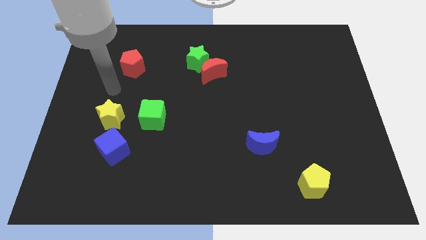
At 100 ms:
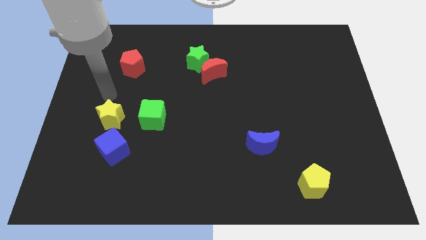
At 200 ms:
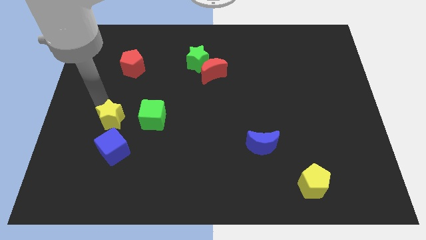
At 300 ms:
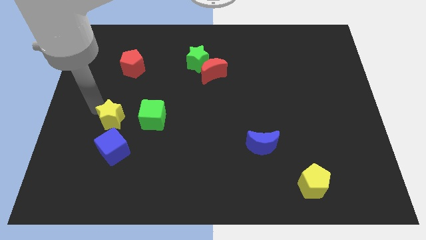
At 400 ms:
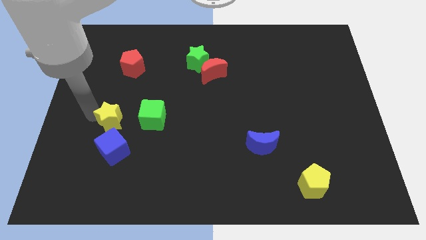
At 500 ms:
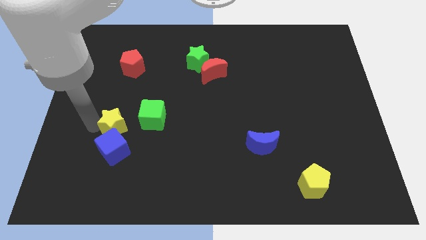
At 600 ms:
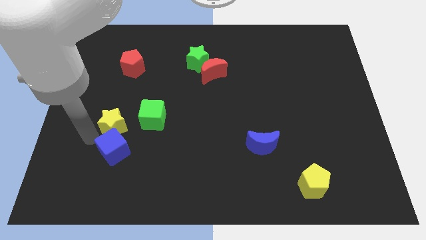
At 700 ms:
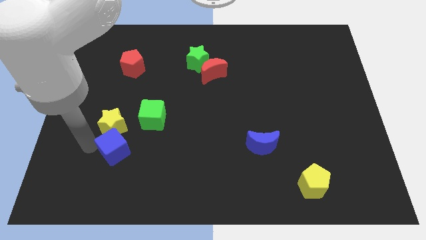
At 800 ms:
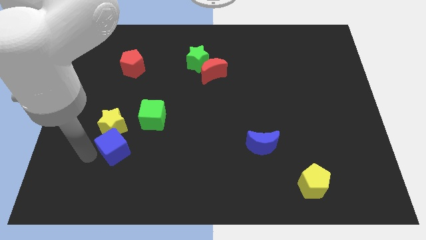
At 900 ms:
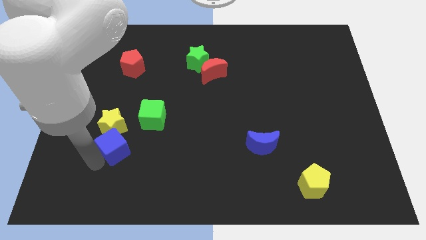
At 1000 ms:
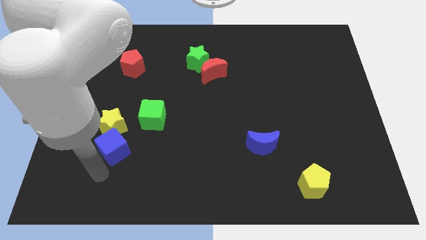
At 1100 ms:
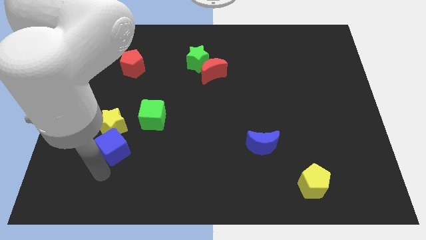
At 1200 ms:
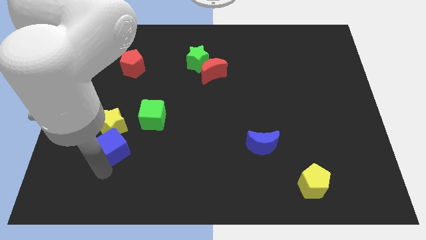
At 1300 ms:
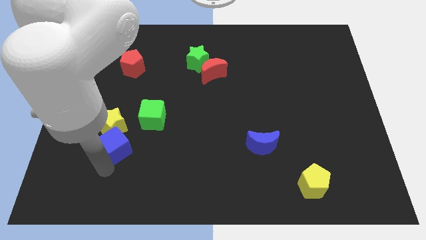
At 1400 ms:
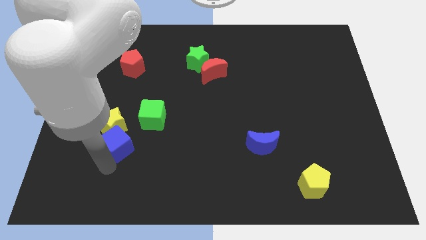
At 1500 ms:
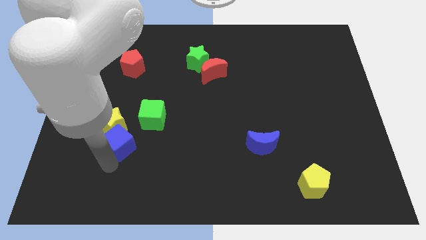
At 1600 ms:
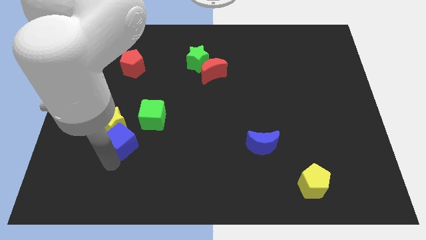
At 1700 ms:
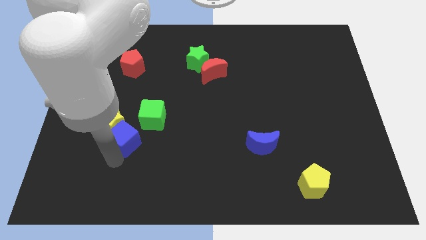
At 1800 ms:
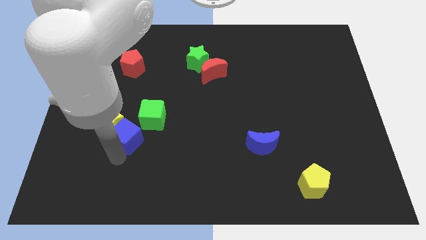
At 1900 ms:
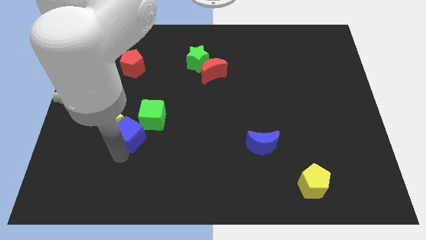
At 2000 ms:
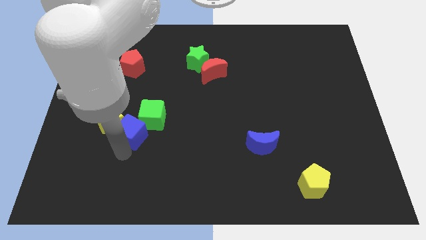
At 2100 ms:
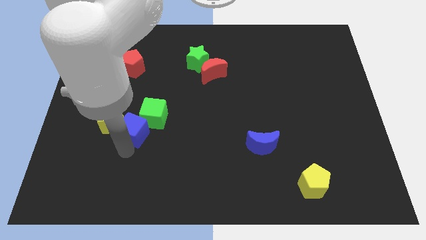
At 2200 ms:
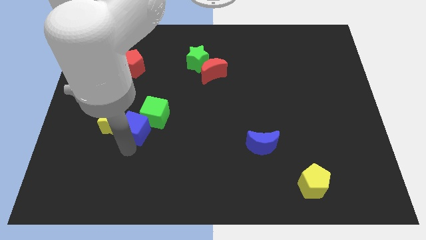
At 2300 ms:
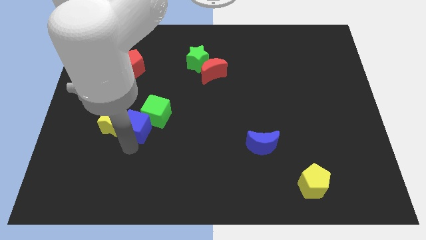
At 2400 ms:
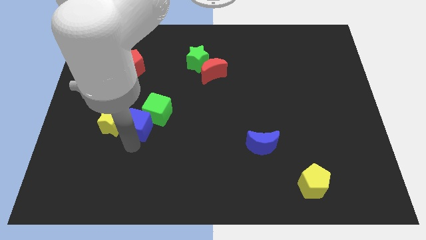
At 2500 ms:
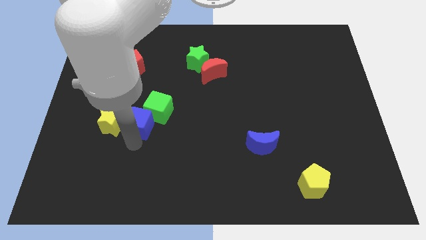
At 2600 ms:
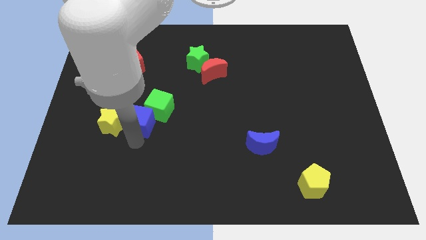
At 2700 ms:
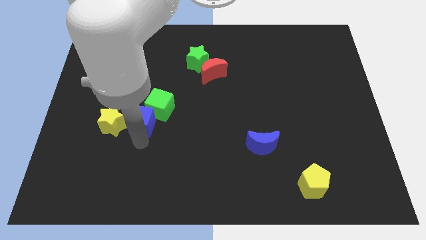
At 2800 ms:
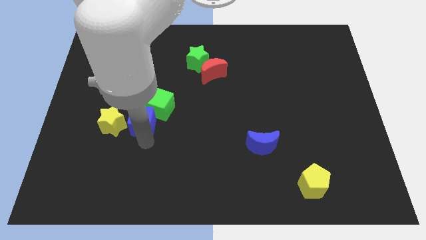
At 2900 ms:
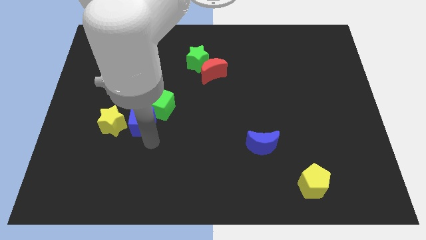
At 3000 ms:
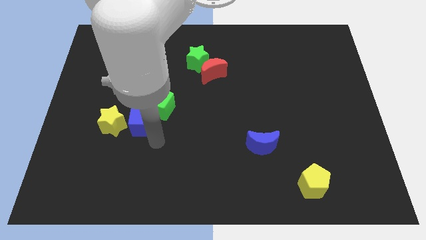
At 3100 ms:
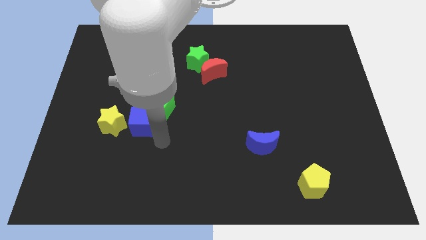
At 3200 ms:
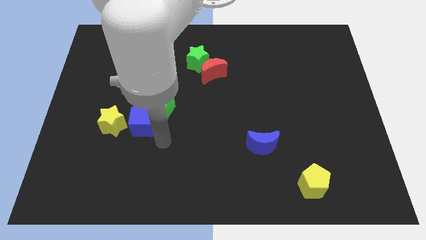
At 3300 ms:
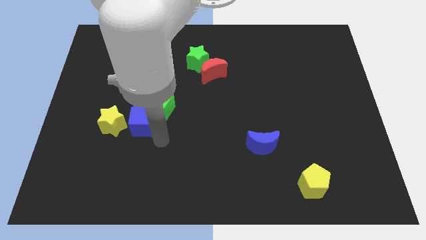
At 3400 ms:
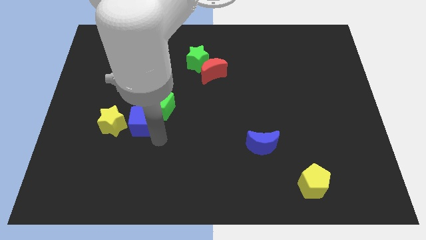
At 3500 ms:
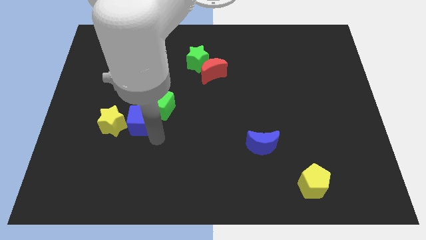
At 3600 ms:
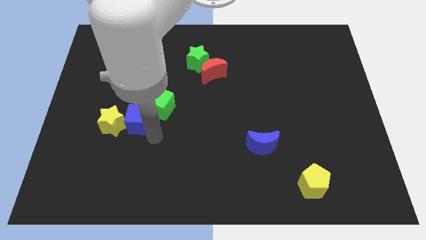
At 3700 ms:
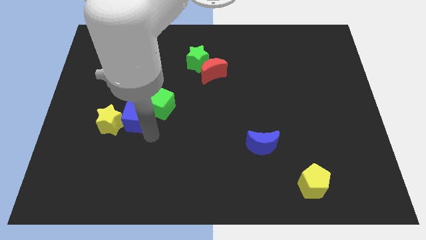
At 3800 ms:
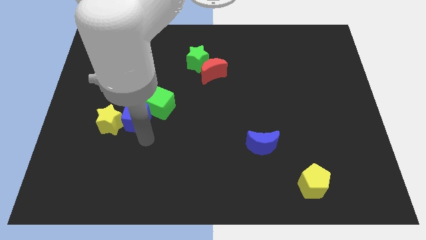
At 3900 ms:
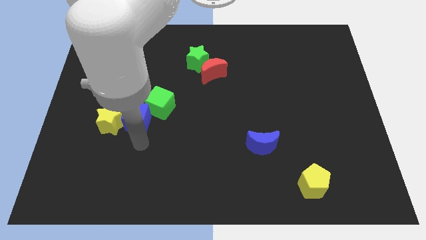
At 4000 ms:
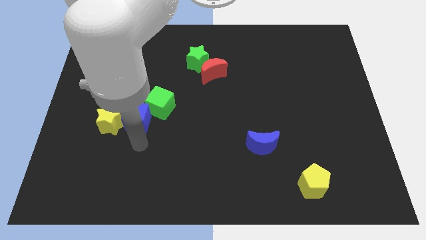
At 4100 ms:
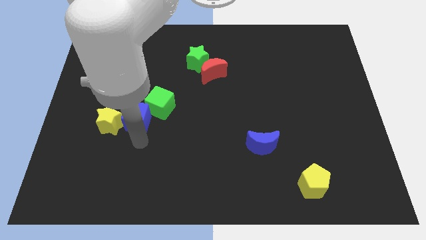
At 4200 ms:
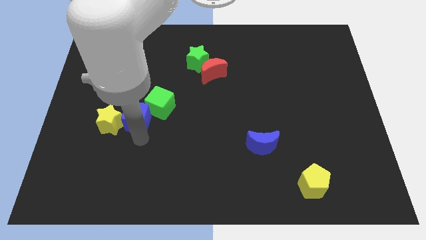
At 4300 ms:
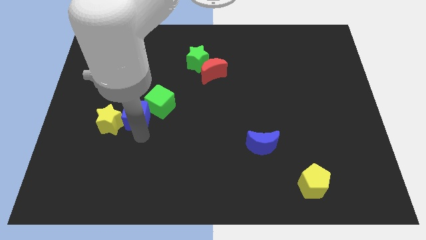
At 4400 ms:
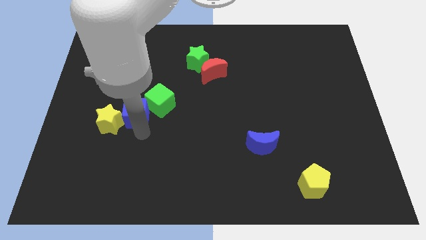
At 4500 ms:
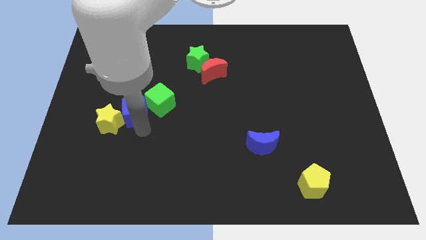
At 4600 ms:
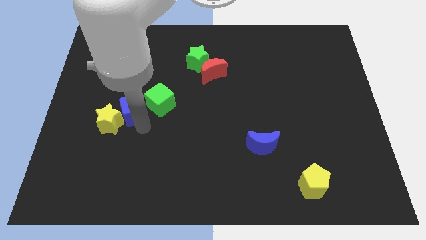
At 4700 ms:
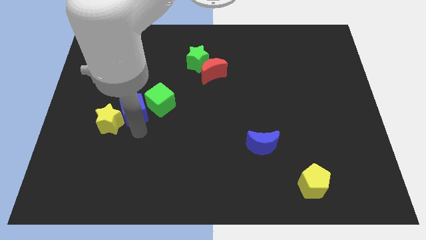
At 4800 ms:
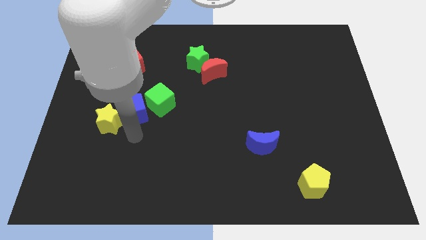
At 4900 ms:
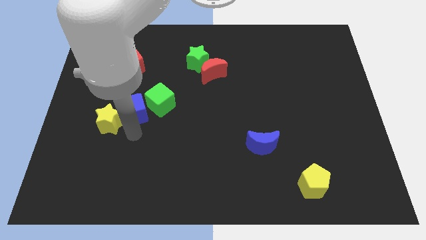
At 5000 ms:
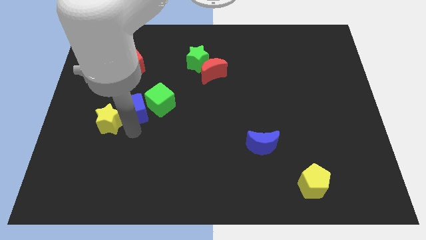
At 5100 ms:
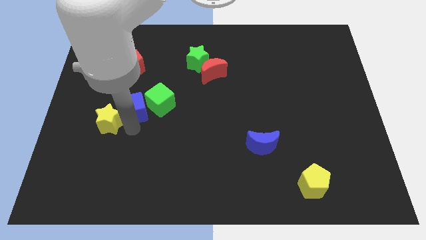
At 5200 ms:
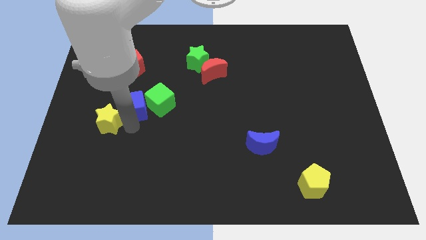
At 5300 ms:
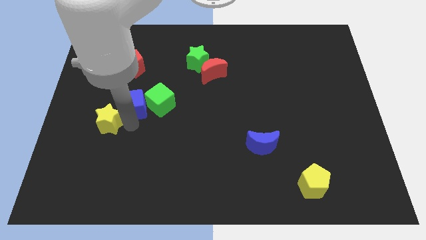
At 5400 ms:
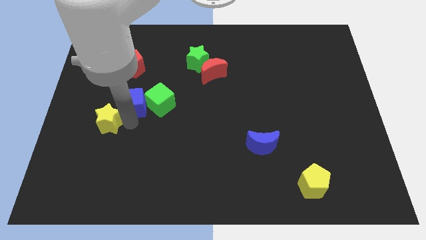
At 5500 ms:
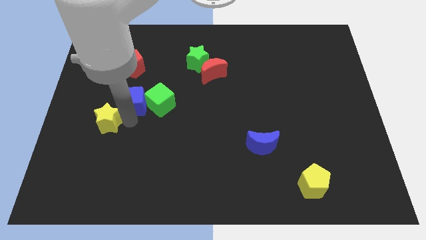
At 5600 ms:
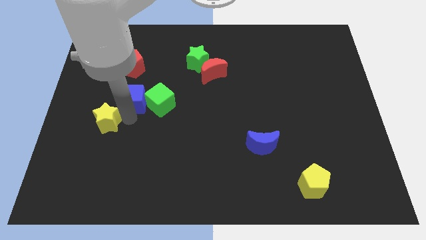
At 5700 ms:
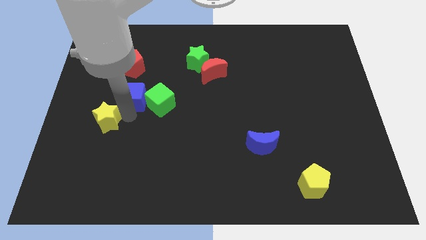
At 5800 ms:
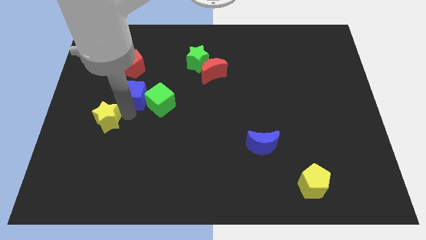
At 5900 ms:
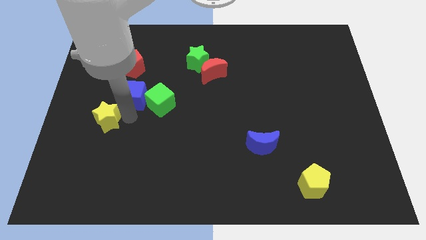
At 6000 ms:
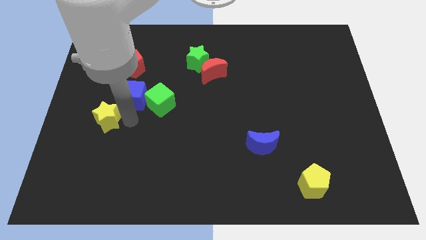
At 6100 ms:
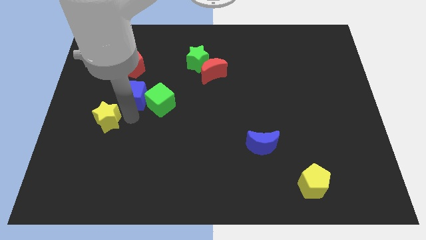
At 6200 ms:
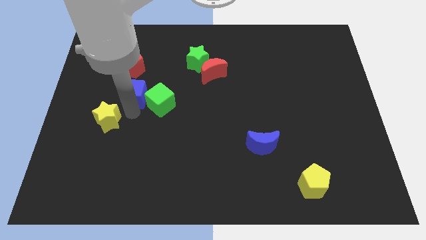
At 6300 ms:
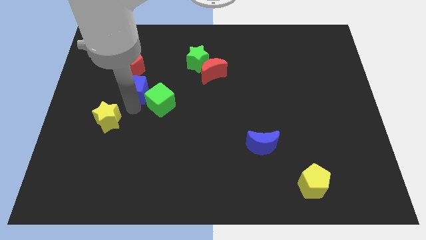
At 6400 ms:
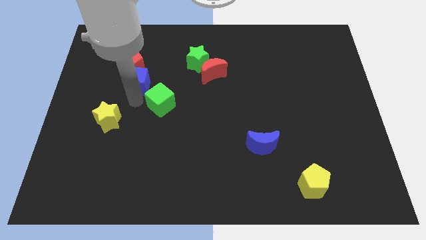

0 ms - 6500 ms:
slide the blue cube towards the red pentagon

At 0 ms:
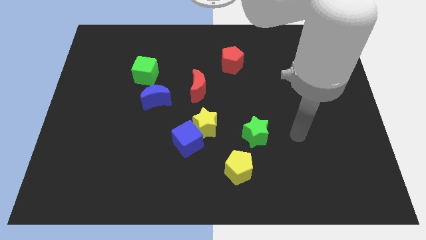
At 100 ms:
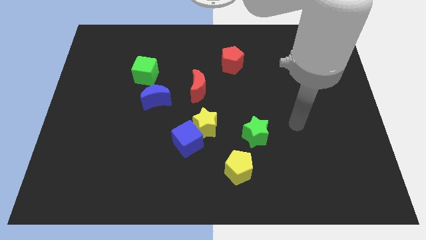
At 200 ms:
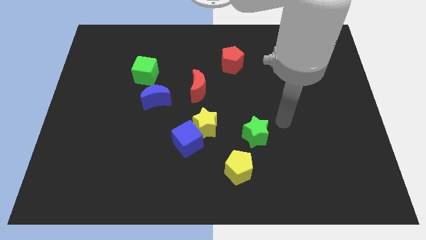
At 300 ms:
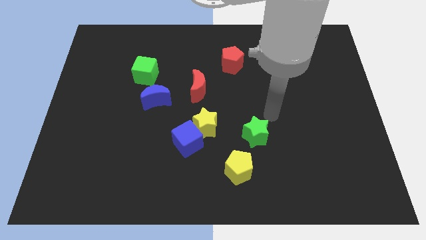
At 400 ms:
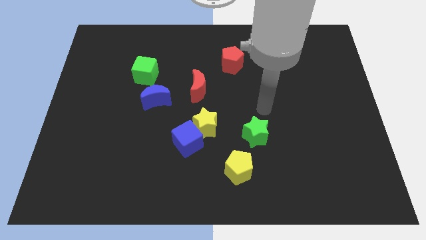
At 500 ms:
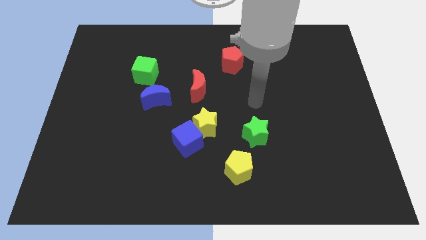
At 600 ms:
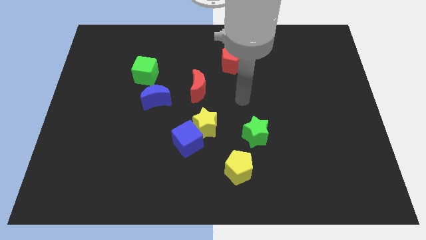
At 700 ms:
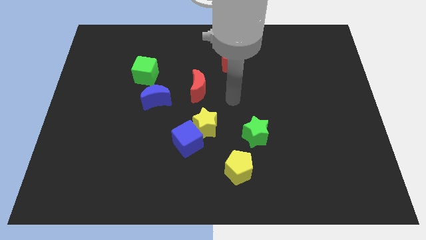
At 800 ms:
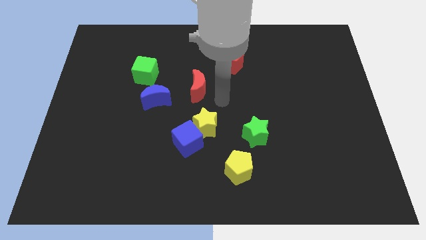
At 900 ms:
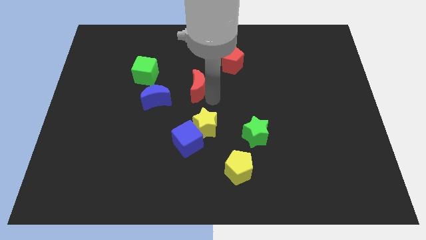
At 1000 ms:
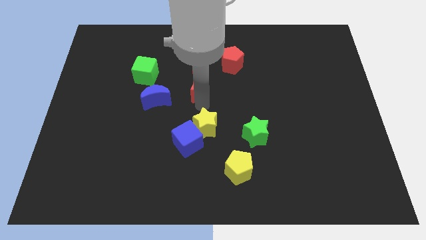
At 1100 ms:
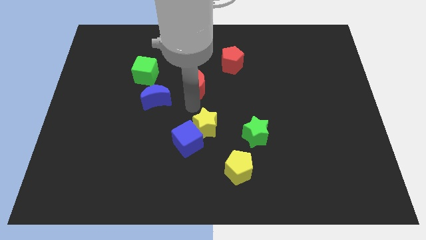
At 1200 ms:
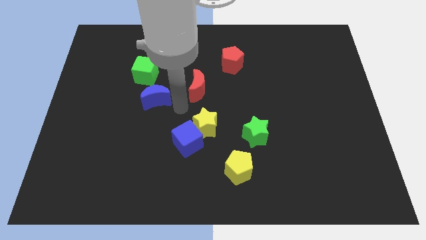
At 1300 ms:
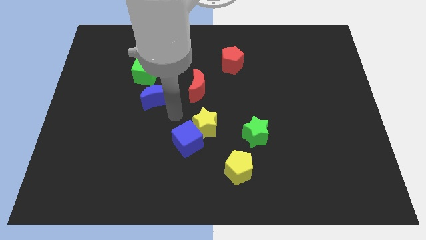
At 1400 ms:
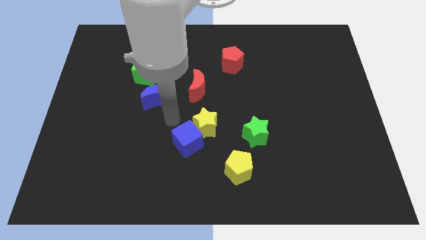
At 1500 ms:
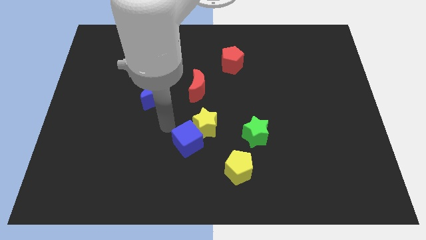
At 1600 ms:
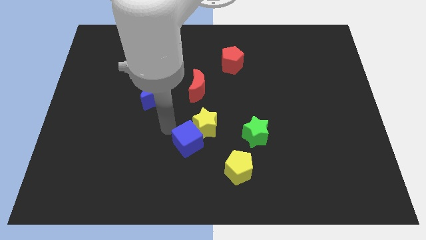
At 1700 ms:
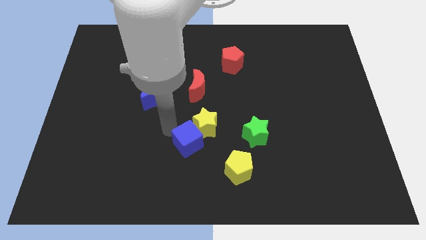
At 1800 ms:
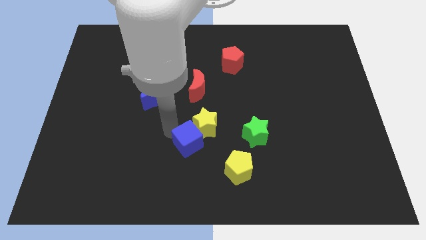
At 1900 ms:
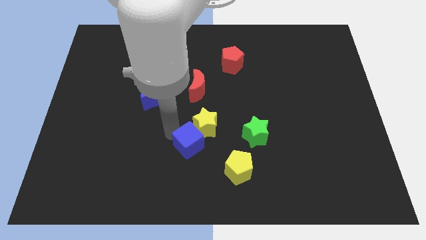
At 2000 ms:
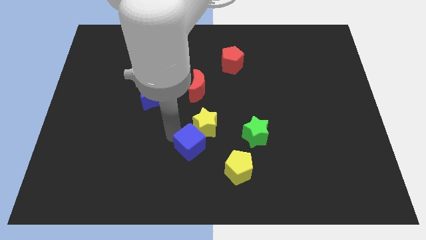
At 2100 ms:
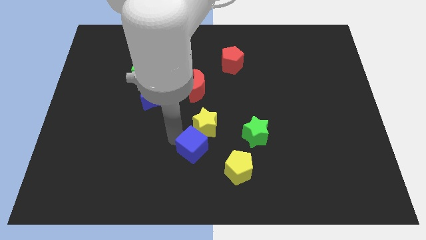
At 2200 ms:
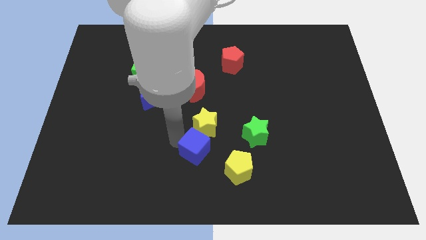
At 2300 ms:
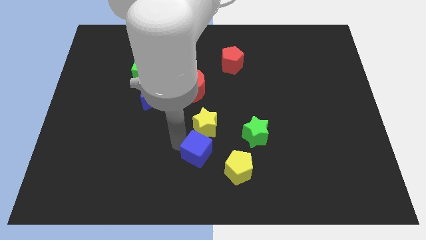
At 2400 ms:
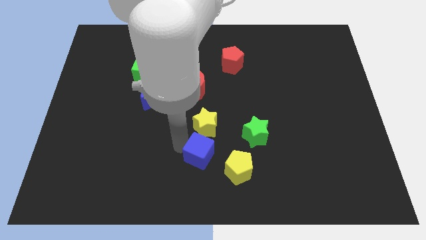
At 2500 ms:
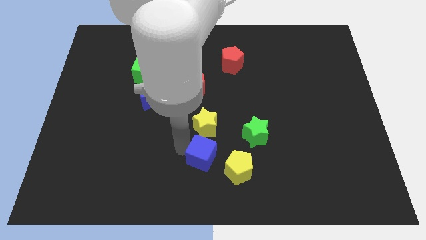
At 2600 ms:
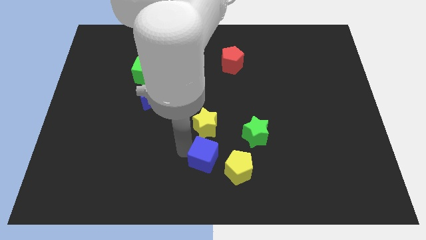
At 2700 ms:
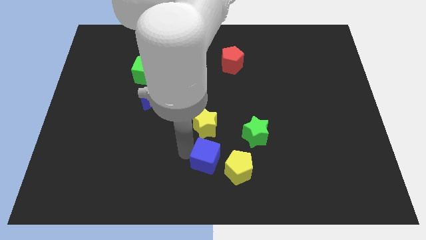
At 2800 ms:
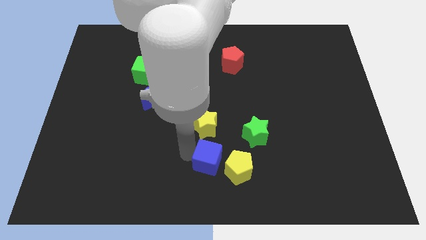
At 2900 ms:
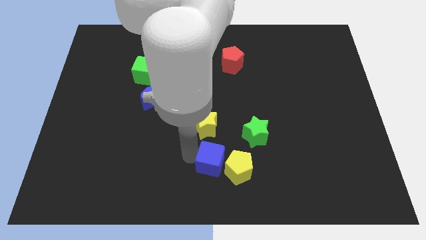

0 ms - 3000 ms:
put the blue cube towards the yellow pentagon
